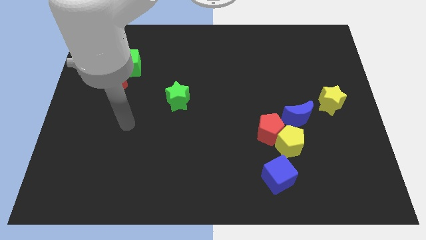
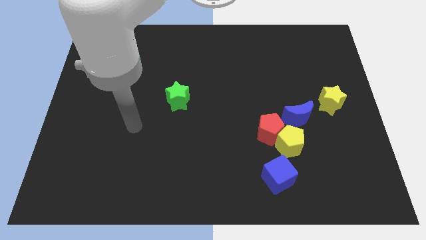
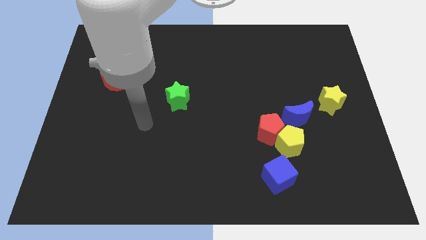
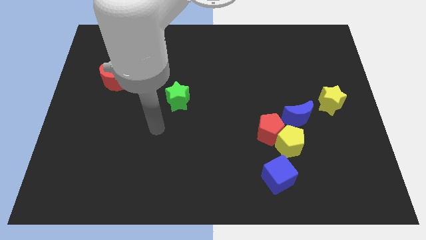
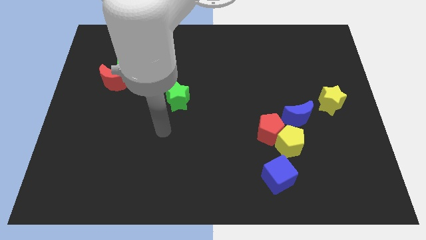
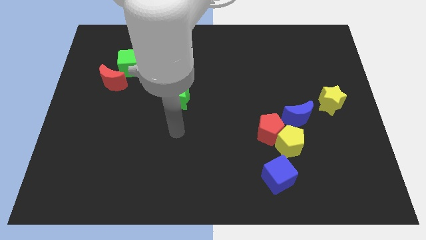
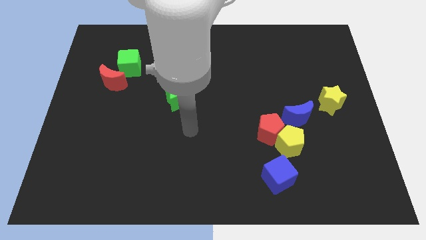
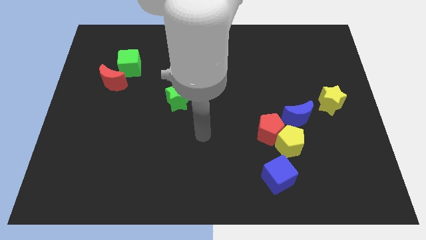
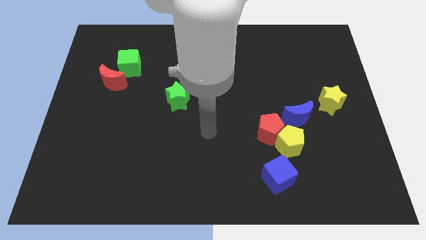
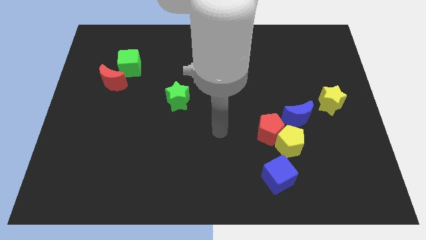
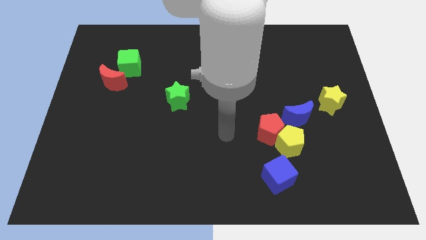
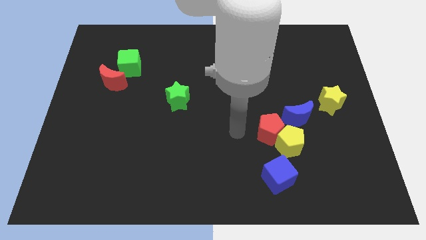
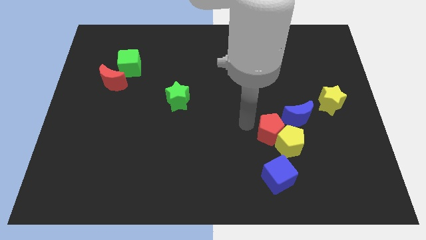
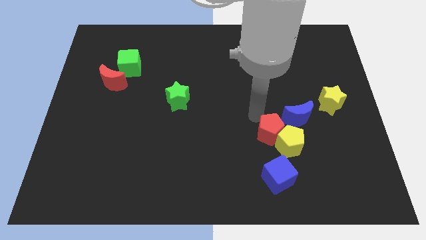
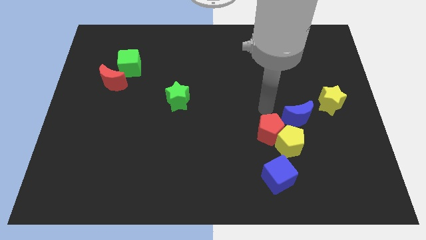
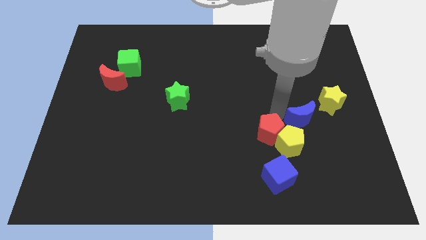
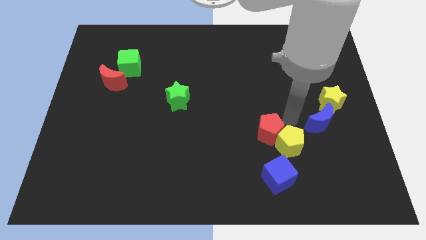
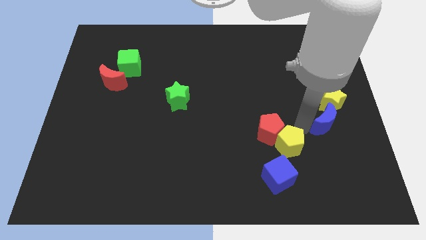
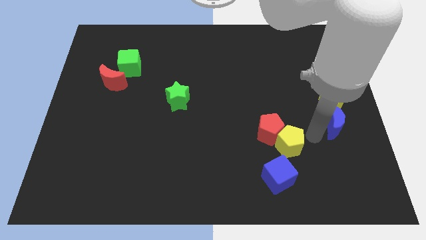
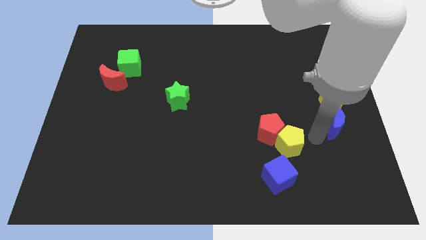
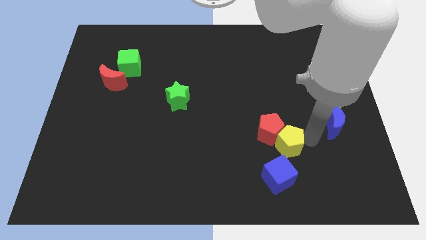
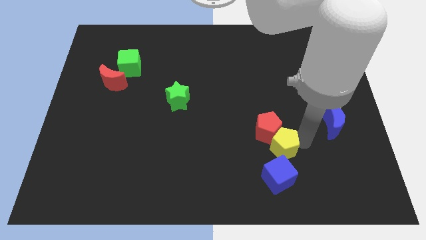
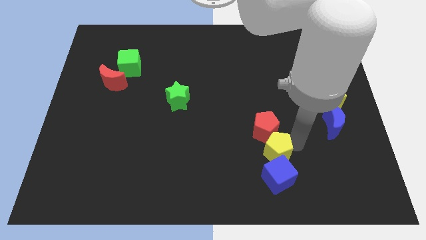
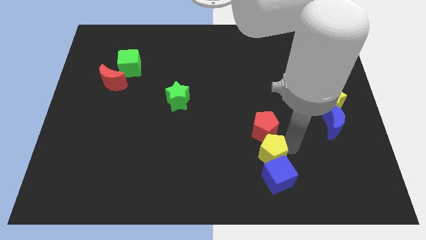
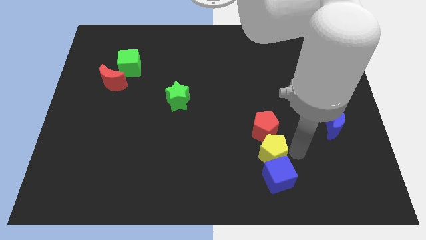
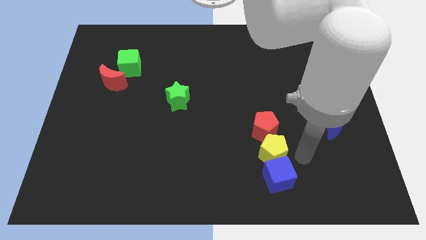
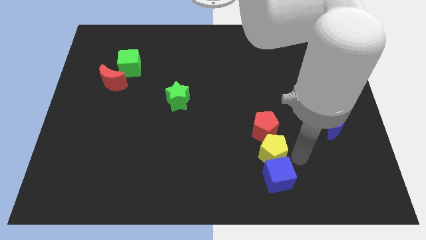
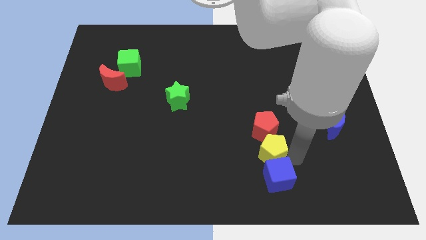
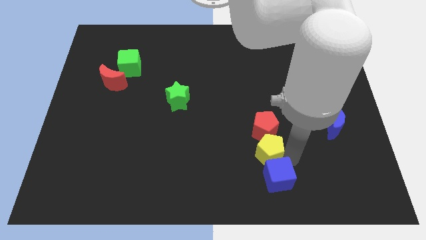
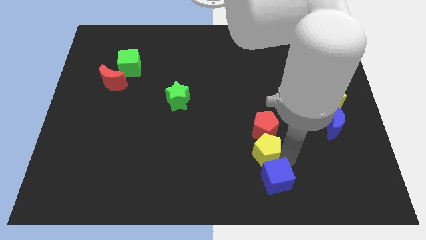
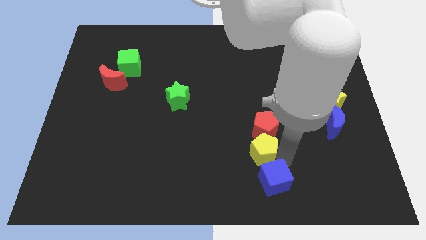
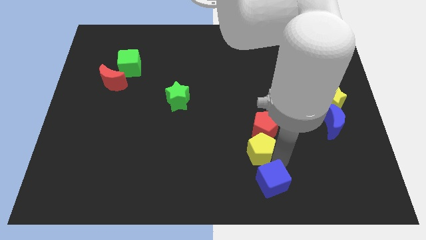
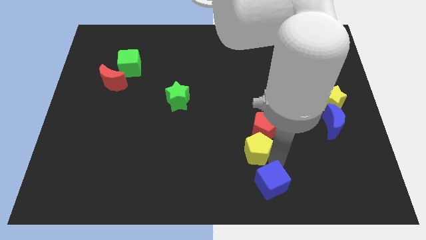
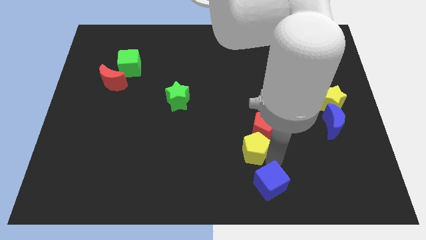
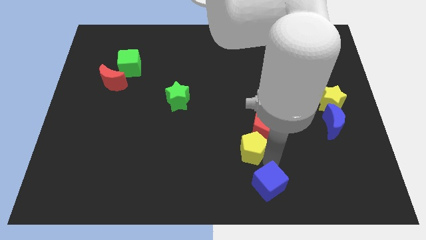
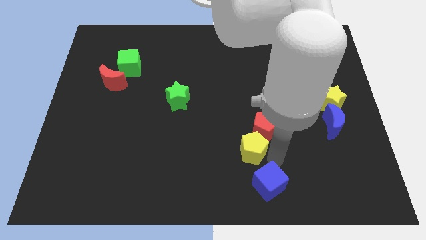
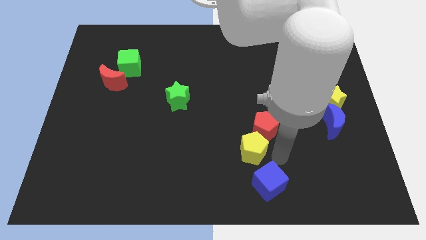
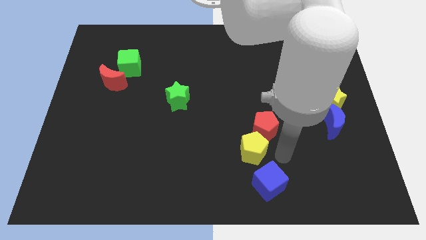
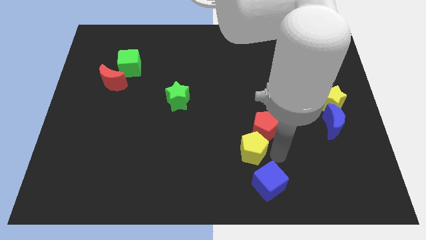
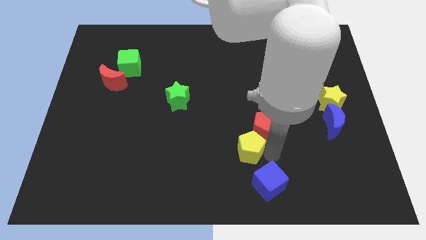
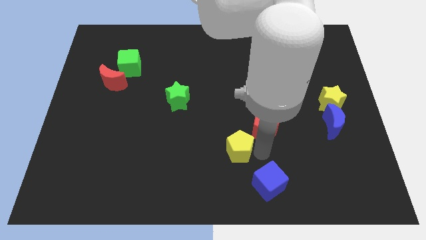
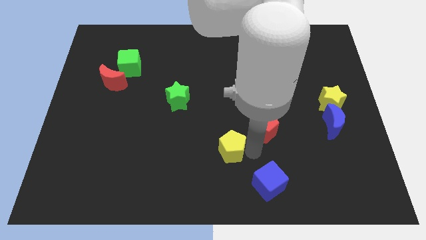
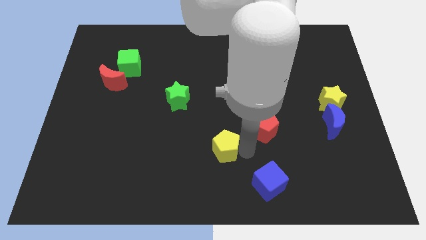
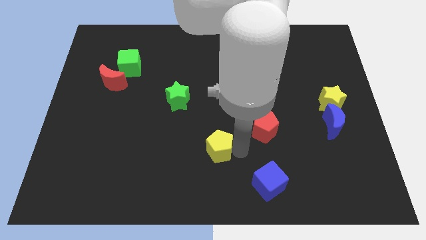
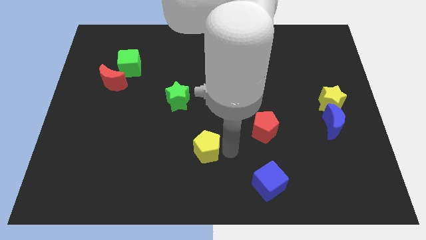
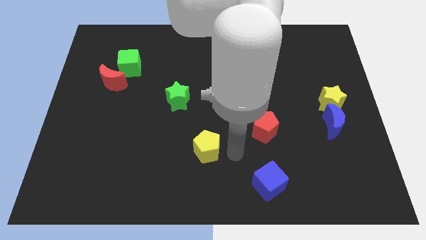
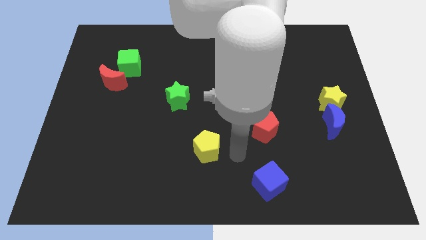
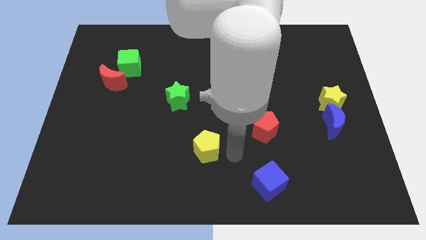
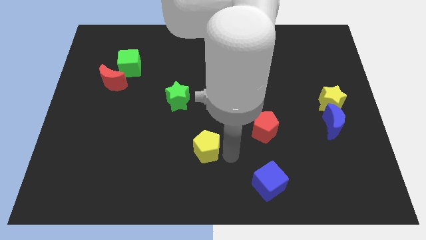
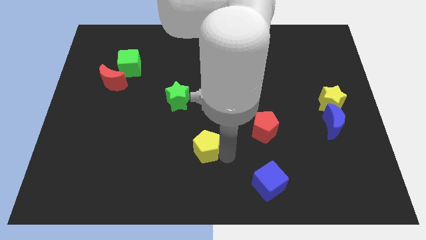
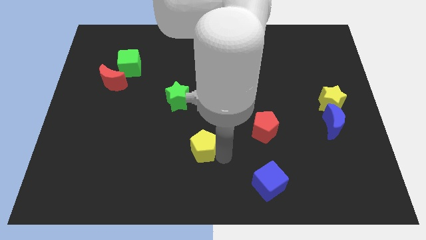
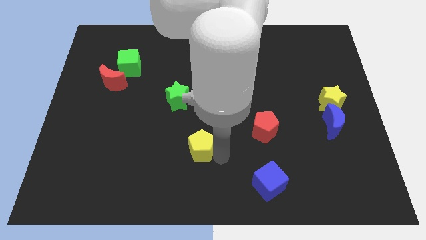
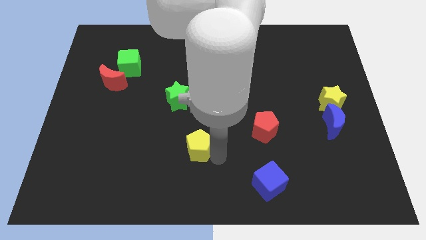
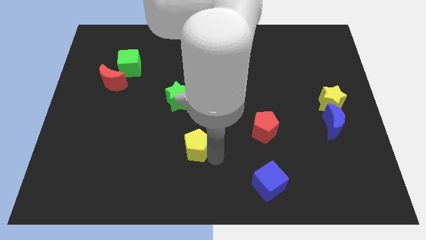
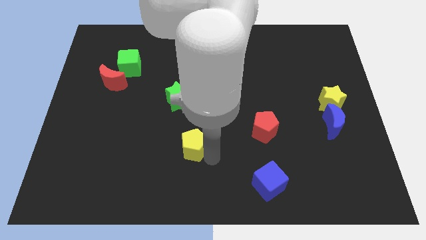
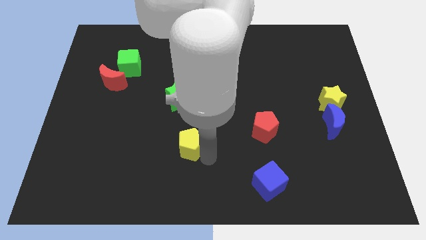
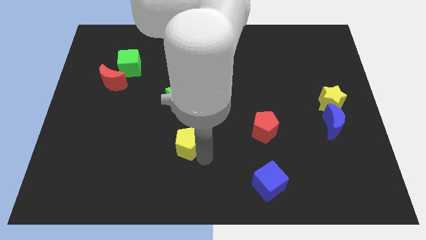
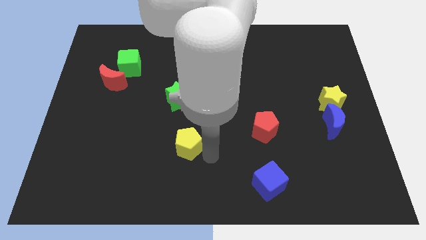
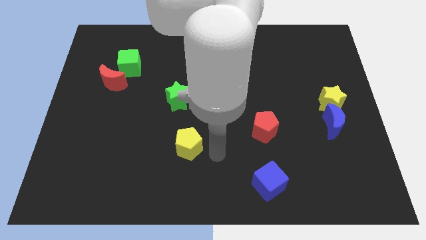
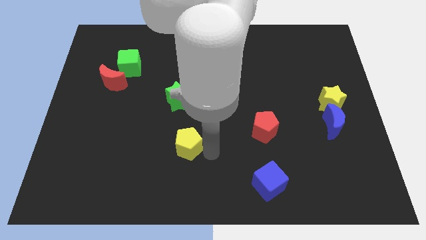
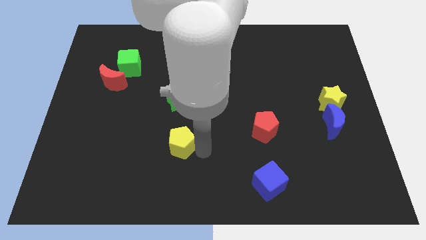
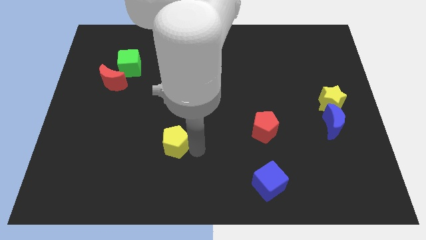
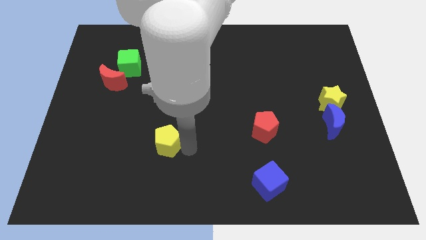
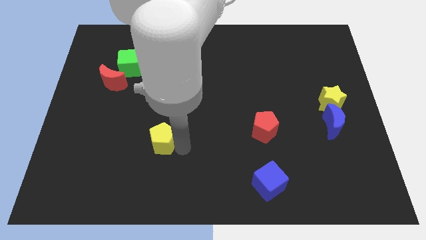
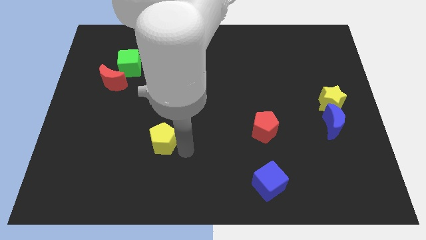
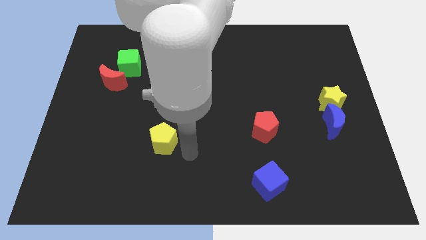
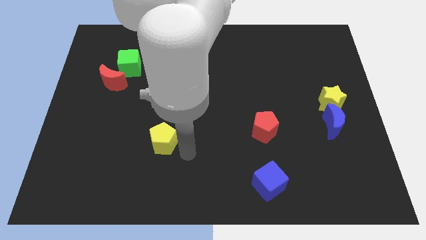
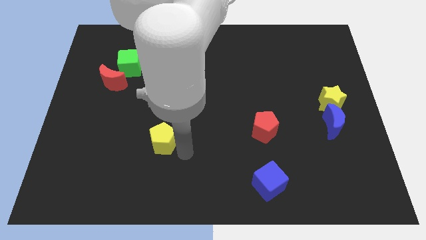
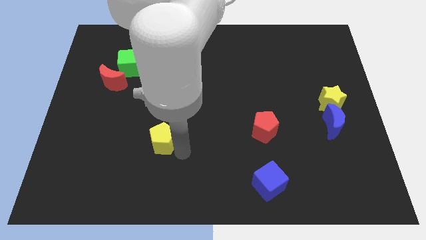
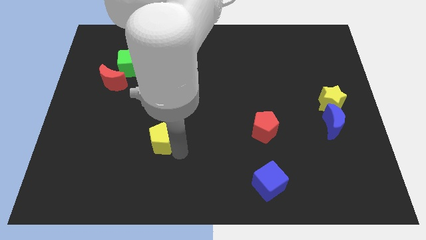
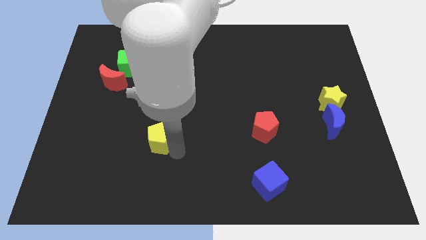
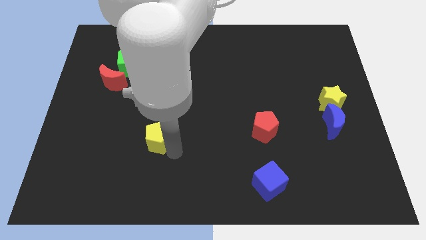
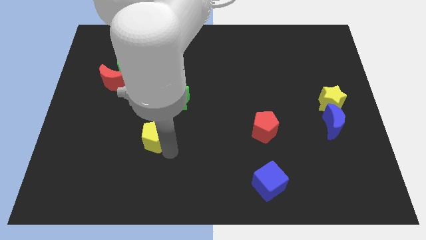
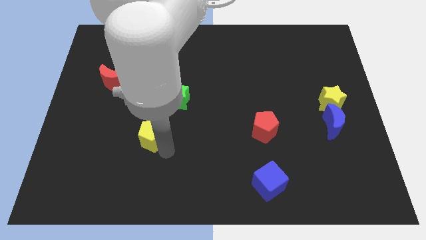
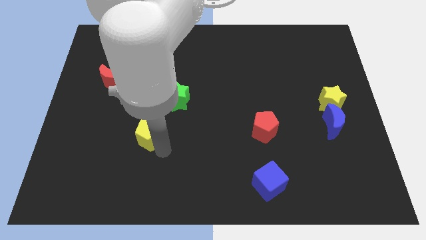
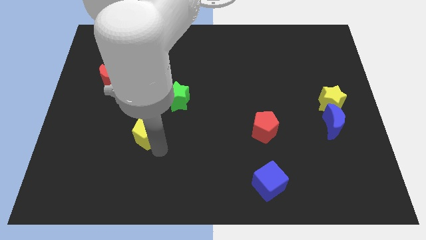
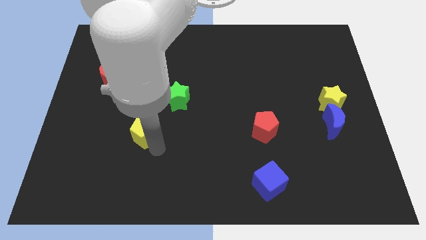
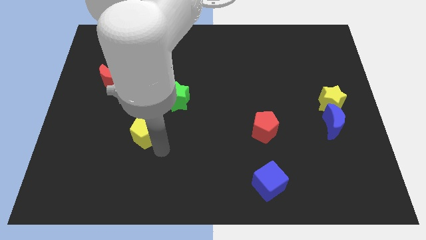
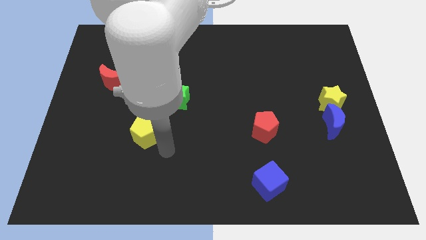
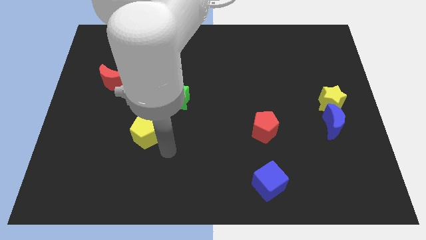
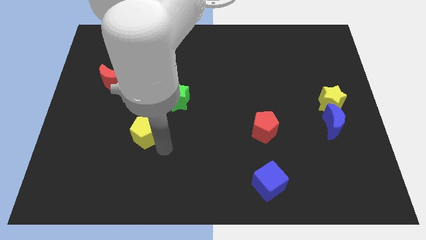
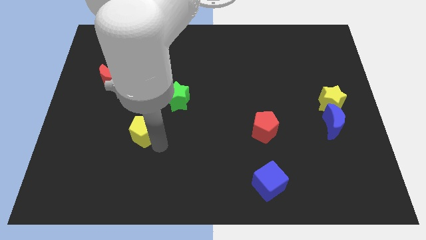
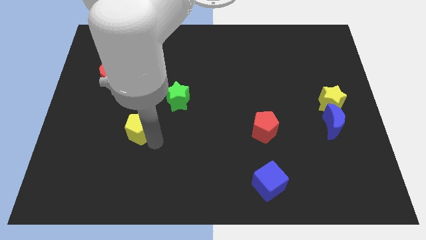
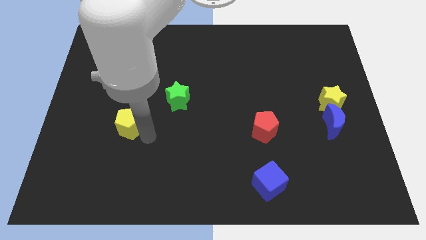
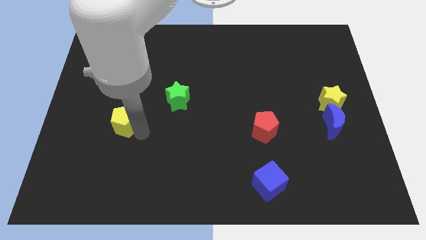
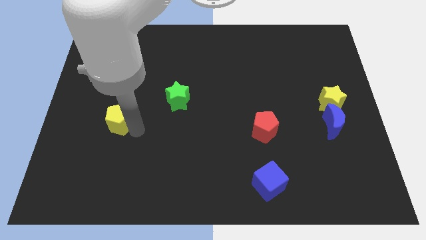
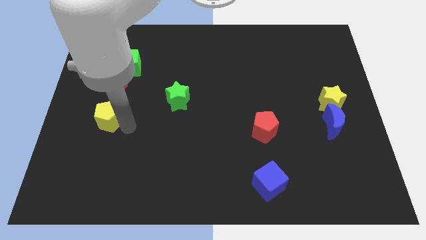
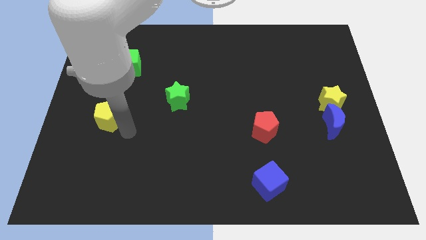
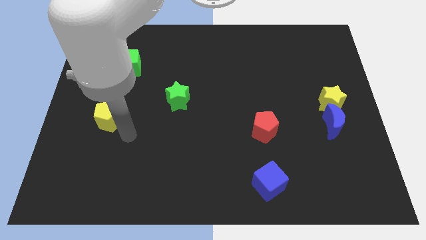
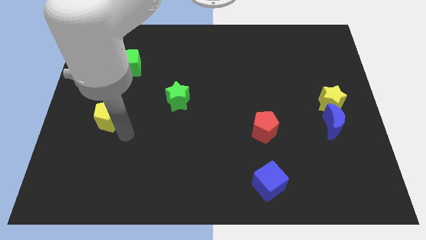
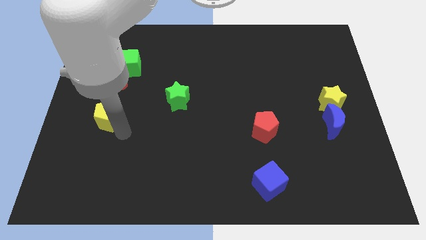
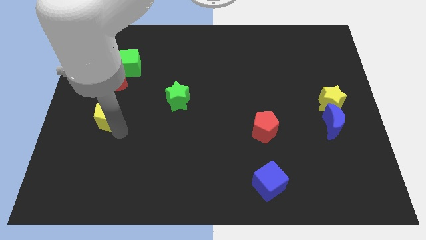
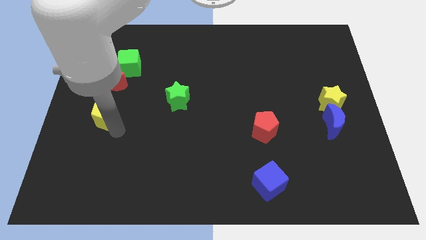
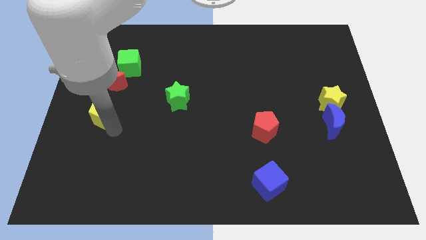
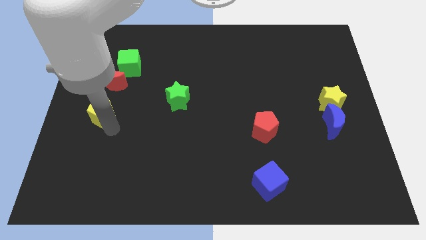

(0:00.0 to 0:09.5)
move the yellow pentagon to the center left
